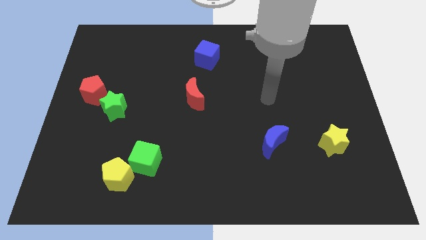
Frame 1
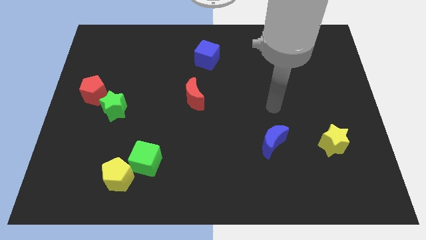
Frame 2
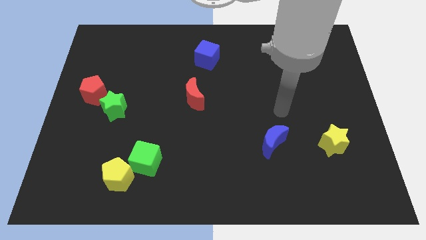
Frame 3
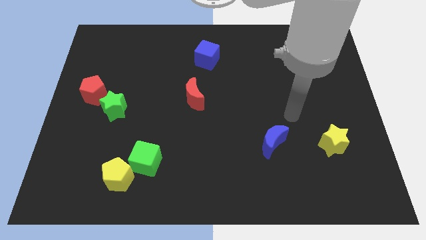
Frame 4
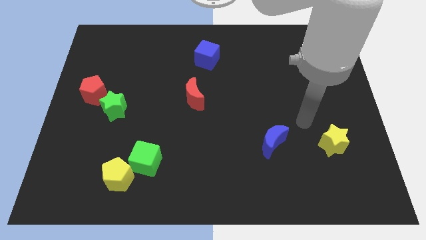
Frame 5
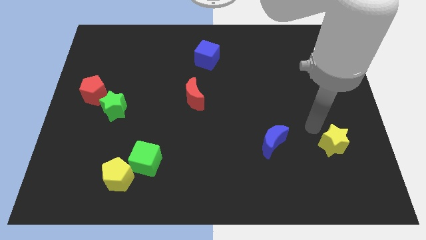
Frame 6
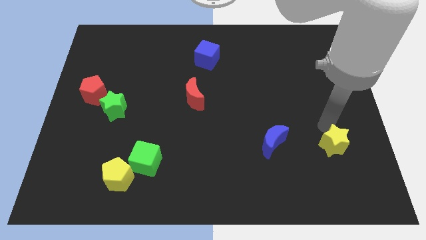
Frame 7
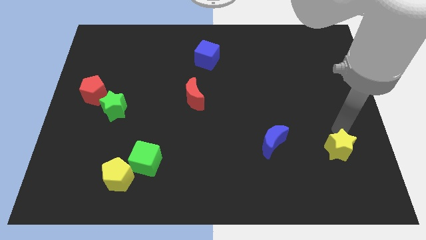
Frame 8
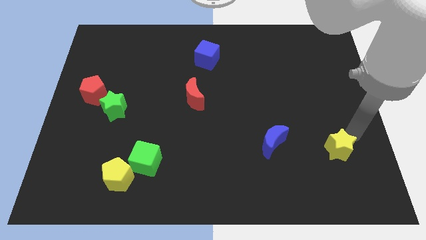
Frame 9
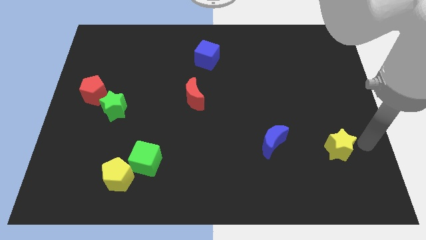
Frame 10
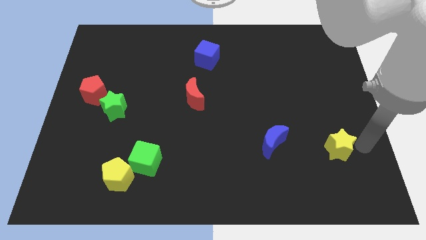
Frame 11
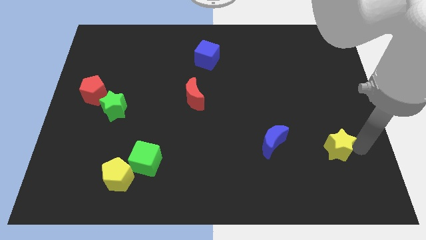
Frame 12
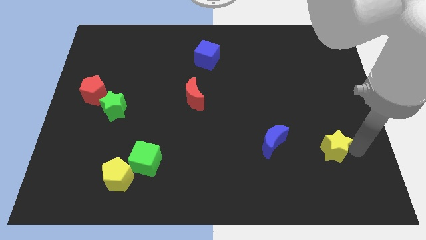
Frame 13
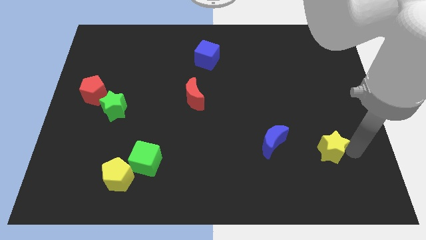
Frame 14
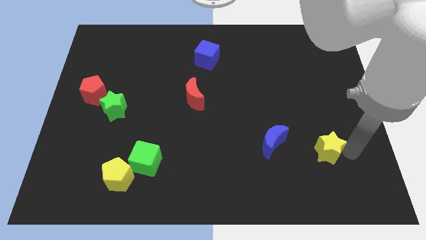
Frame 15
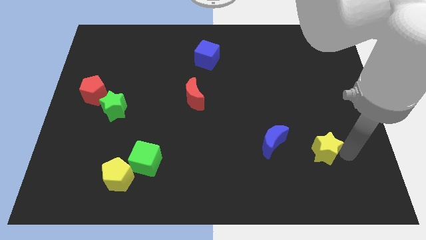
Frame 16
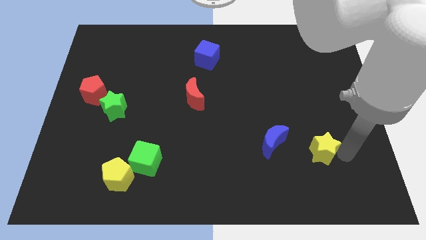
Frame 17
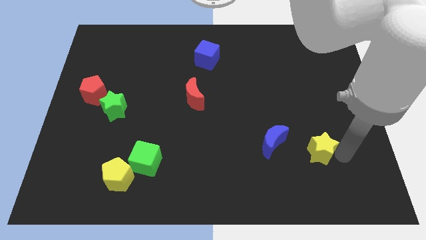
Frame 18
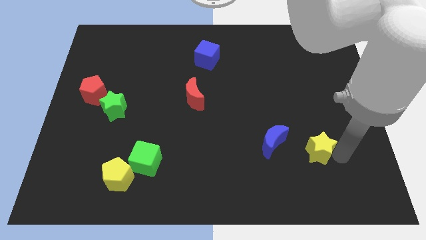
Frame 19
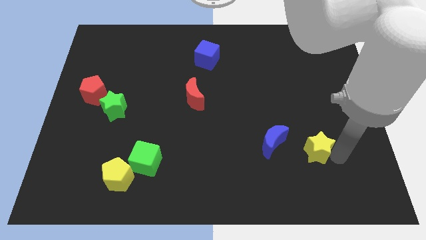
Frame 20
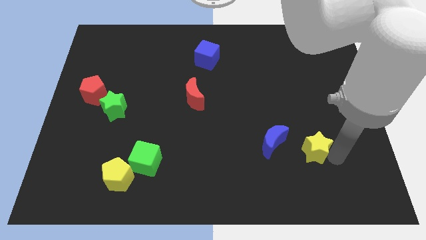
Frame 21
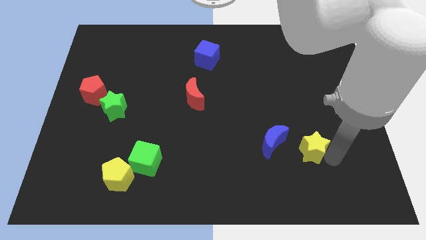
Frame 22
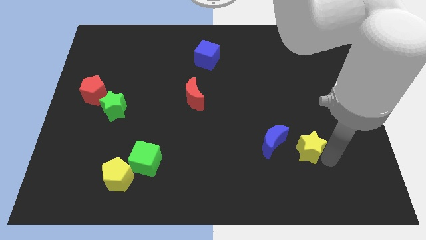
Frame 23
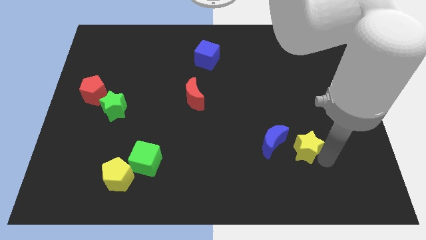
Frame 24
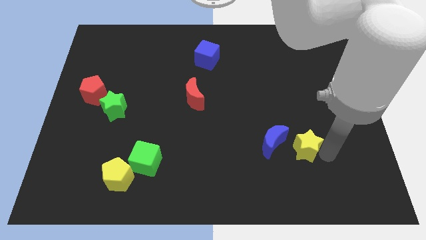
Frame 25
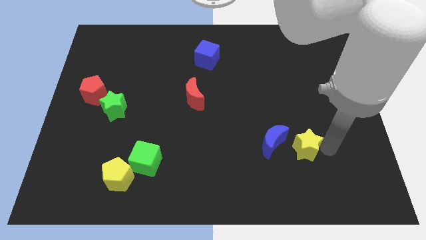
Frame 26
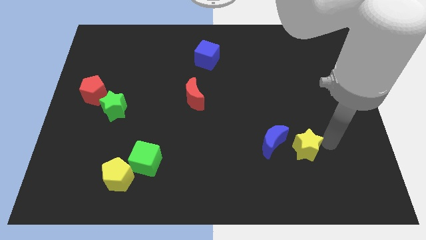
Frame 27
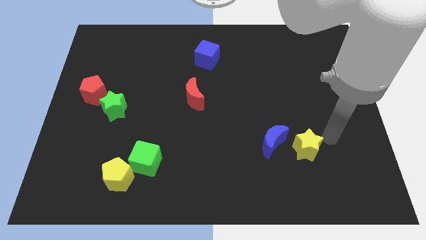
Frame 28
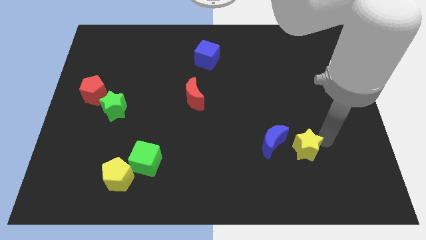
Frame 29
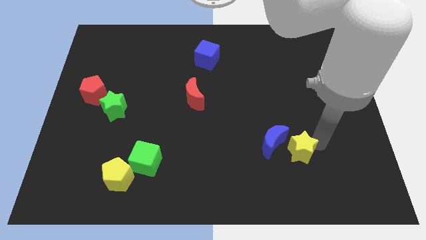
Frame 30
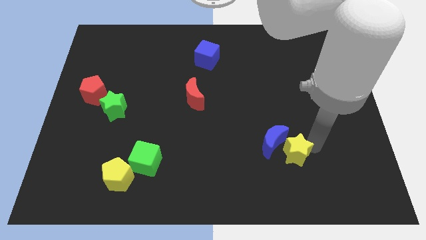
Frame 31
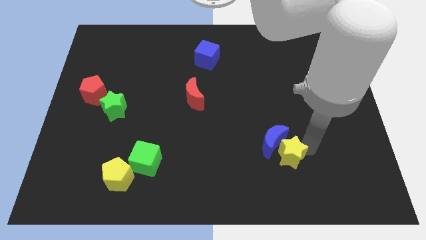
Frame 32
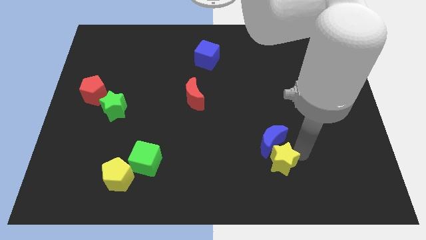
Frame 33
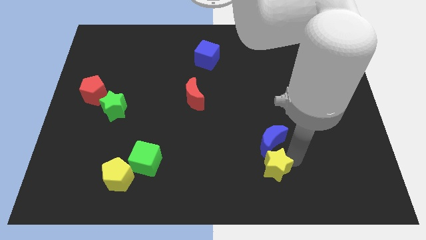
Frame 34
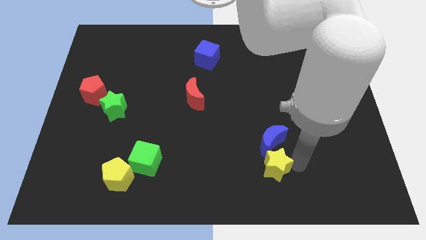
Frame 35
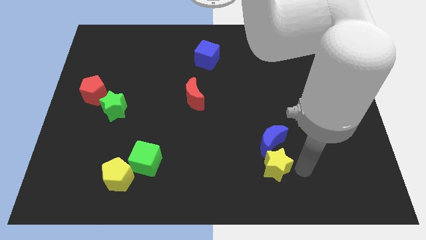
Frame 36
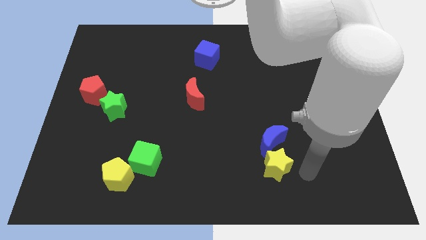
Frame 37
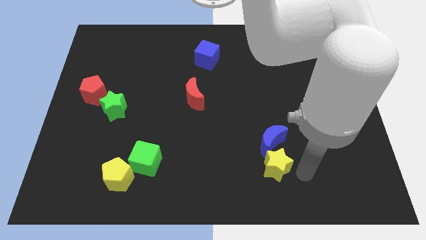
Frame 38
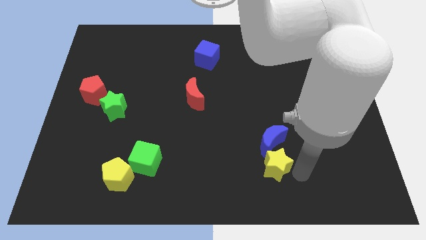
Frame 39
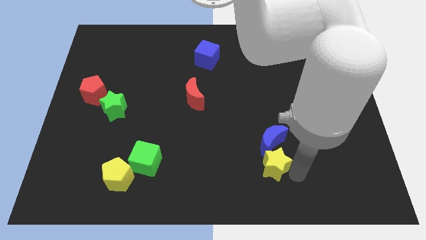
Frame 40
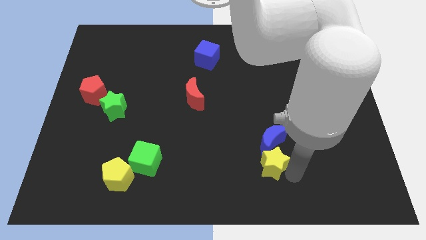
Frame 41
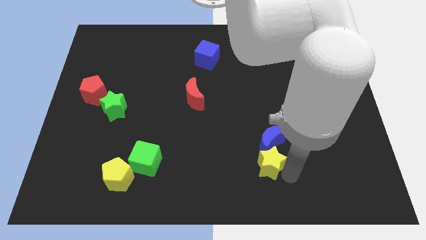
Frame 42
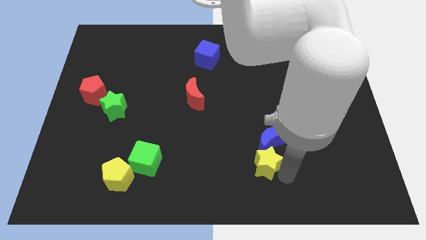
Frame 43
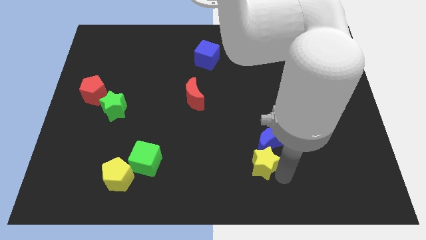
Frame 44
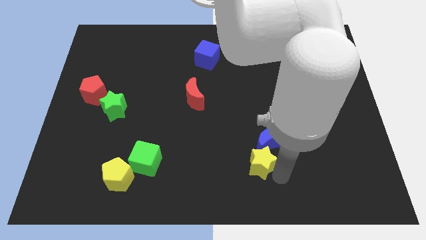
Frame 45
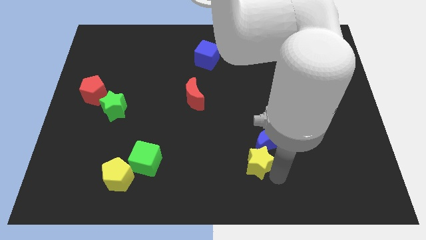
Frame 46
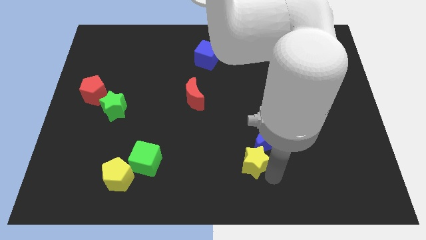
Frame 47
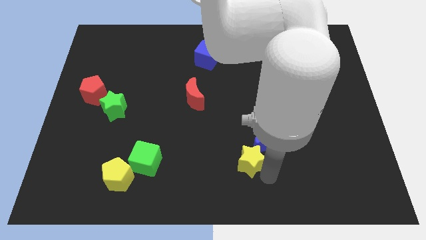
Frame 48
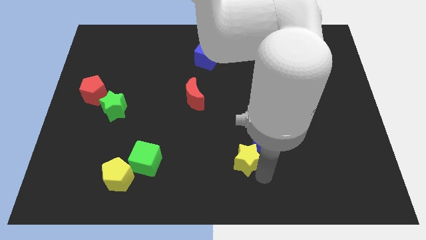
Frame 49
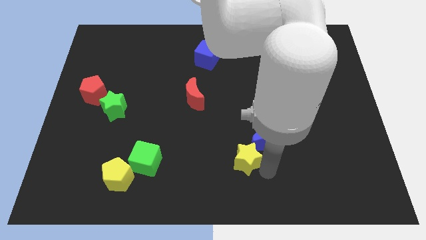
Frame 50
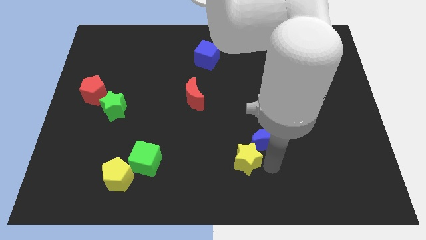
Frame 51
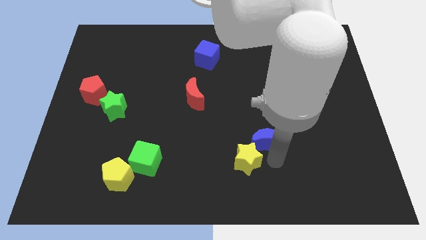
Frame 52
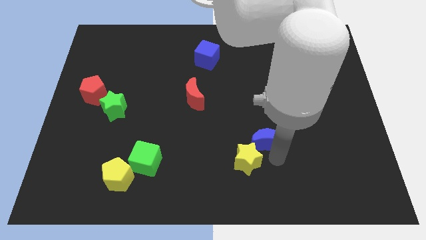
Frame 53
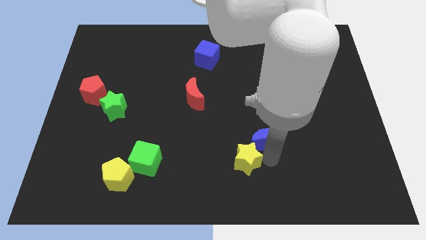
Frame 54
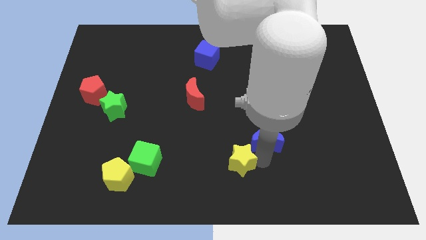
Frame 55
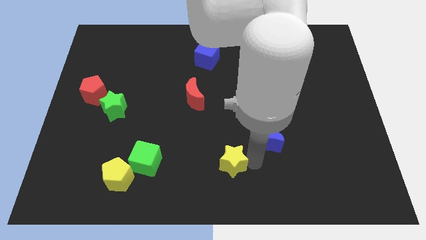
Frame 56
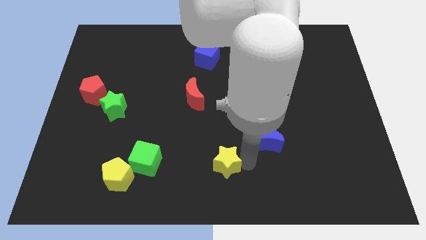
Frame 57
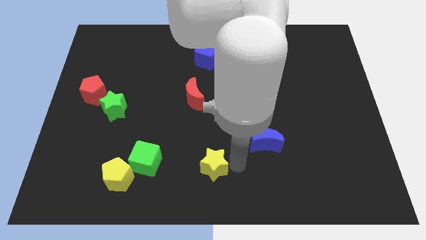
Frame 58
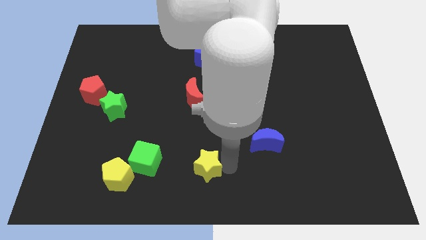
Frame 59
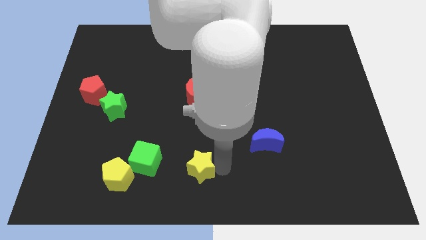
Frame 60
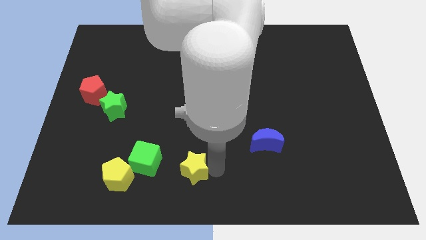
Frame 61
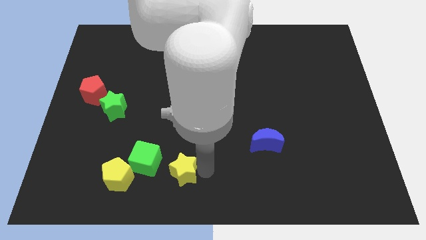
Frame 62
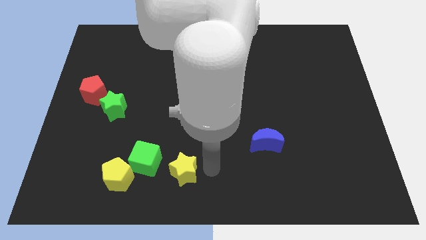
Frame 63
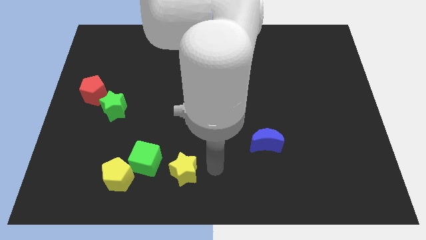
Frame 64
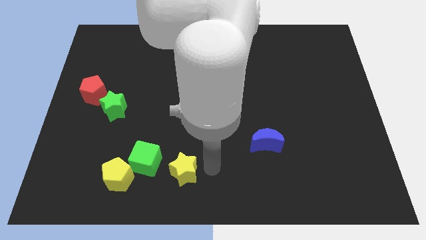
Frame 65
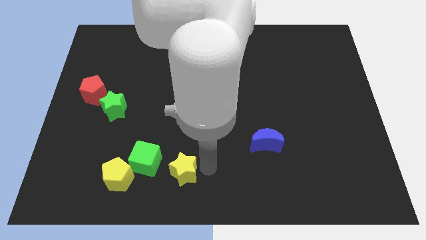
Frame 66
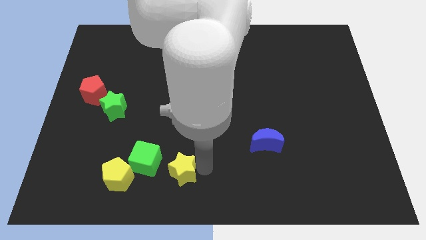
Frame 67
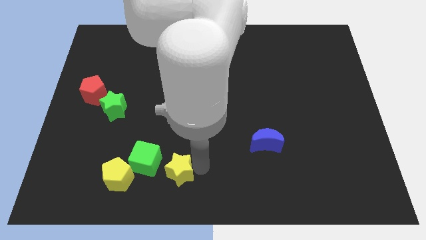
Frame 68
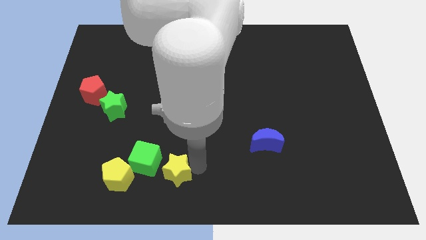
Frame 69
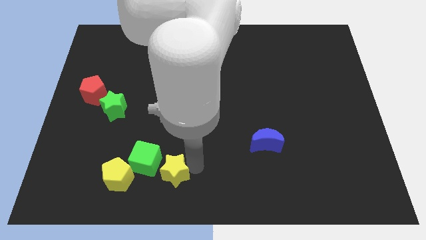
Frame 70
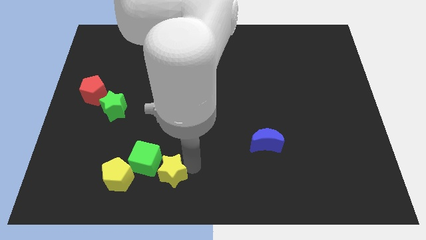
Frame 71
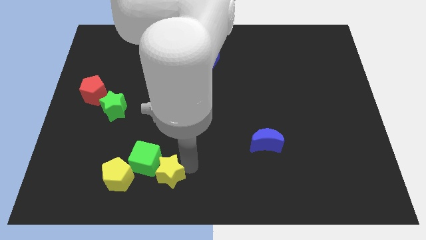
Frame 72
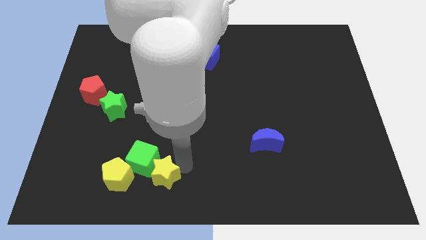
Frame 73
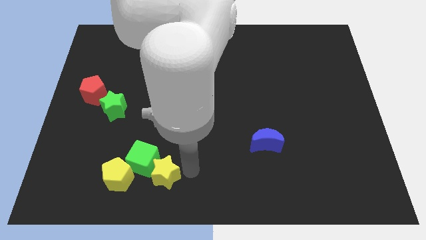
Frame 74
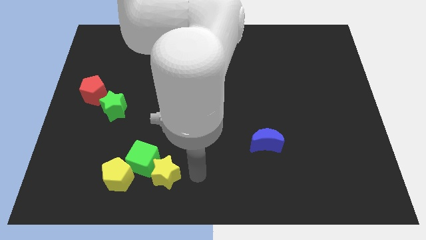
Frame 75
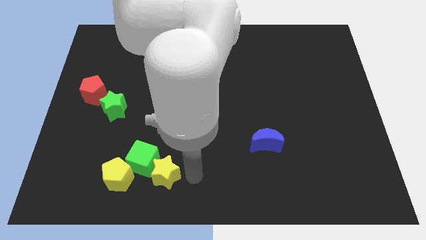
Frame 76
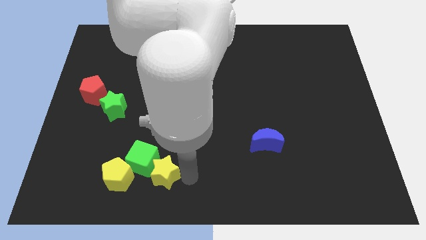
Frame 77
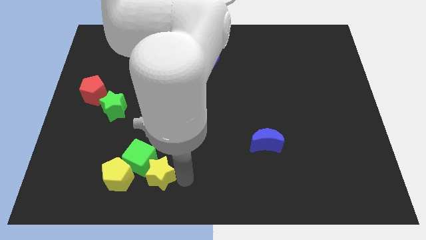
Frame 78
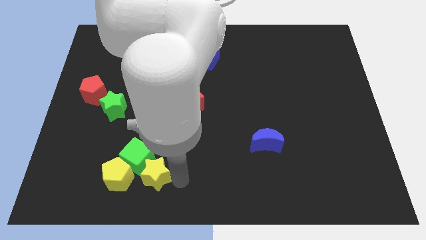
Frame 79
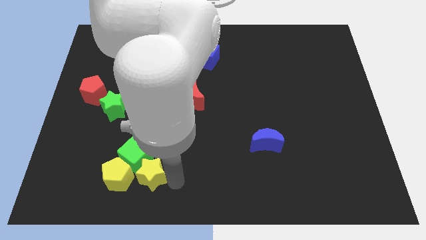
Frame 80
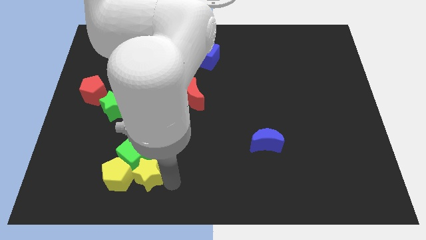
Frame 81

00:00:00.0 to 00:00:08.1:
put the yellow star next to the yellow pentagon

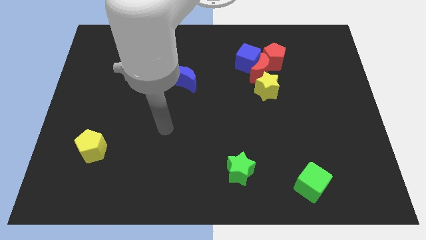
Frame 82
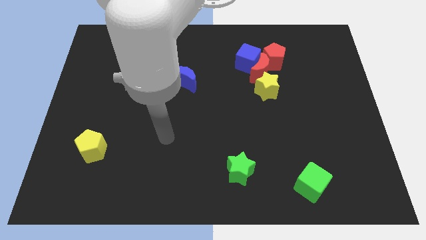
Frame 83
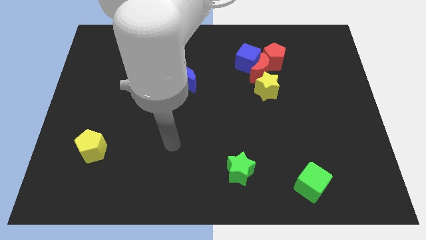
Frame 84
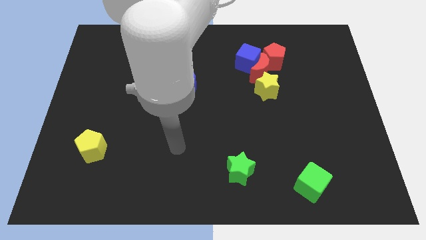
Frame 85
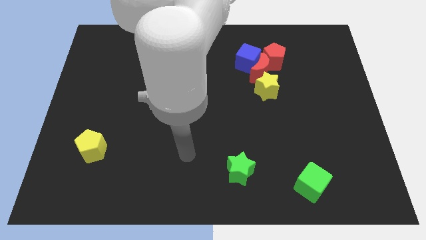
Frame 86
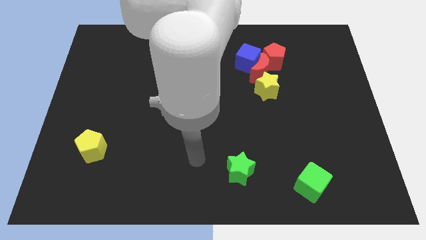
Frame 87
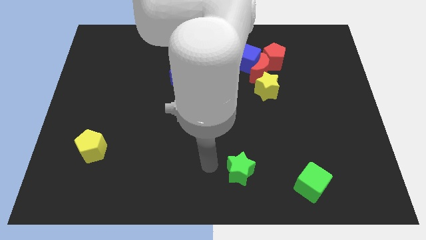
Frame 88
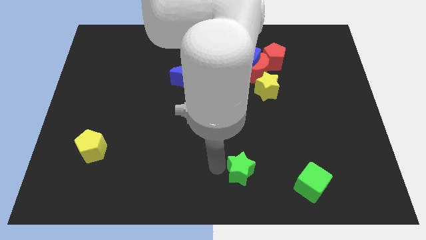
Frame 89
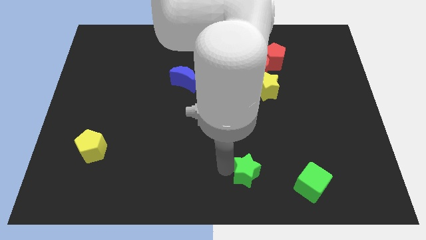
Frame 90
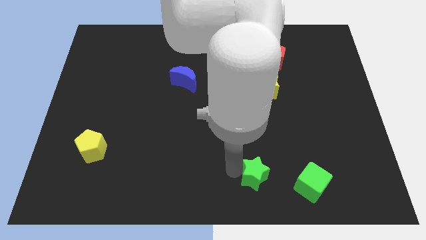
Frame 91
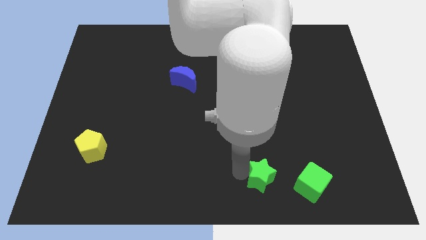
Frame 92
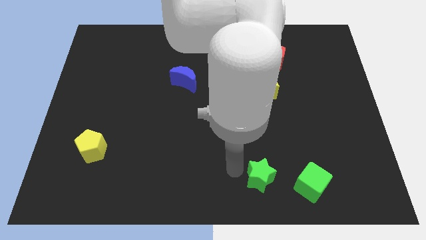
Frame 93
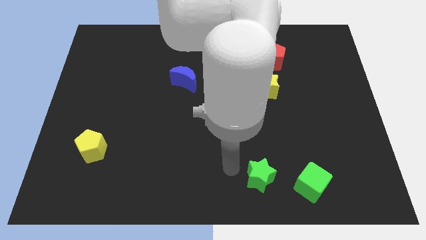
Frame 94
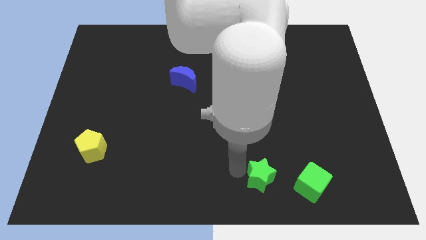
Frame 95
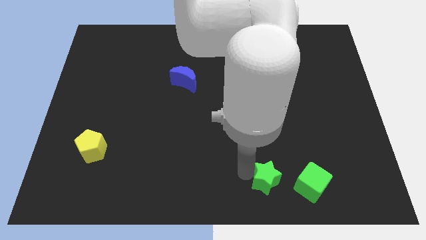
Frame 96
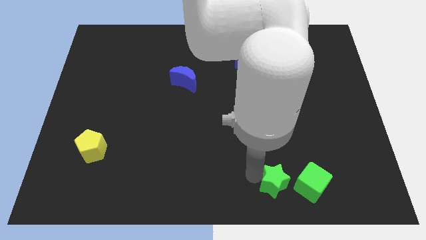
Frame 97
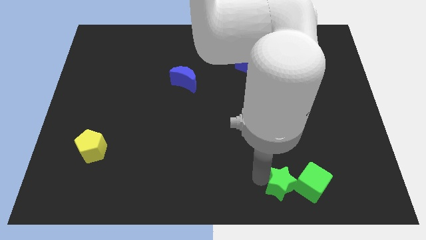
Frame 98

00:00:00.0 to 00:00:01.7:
slide the green star towards the green cube
